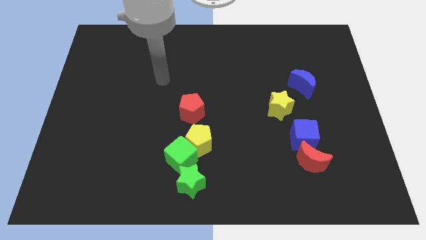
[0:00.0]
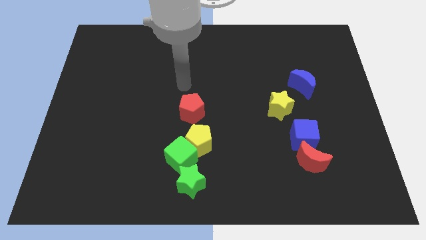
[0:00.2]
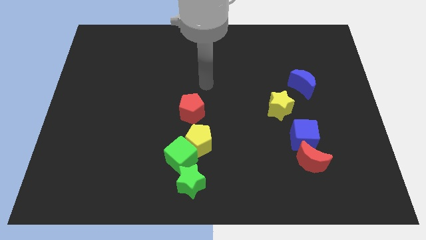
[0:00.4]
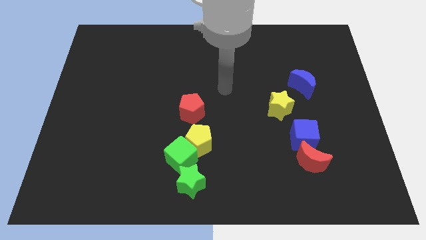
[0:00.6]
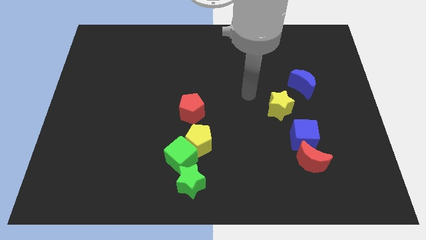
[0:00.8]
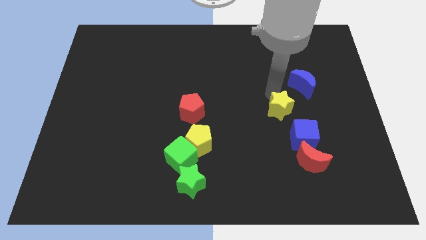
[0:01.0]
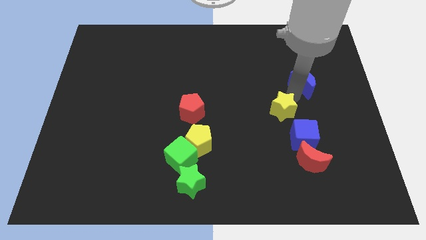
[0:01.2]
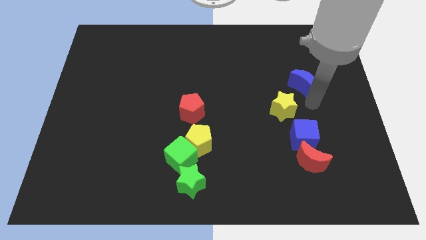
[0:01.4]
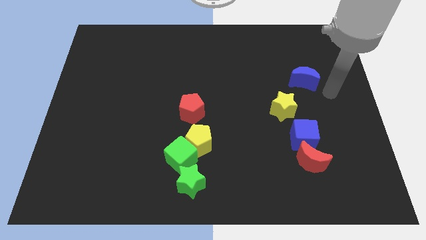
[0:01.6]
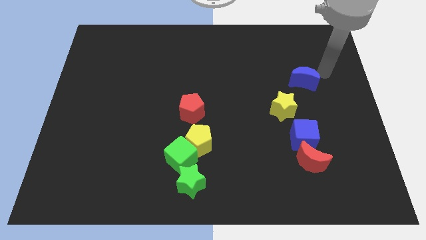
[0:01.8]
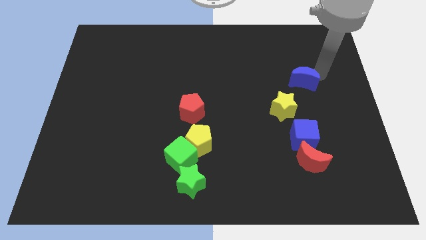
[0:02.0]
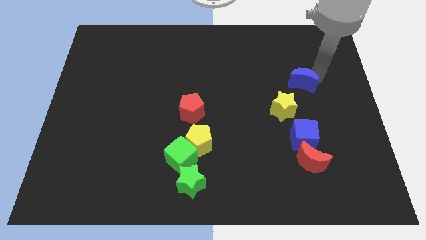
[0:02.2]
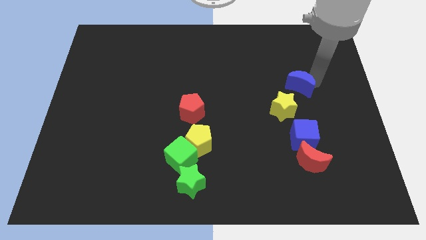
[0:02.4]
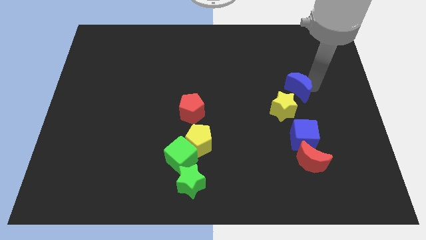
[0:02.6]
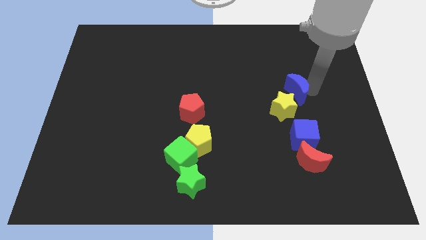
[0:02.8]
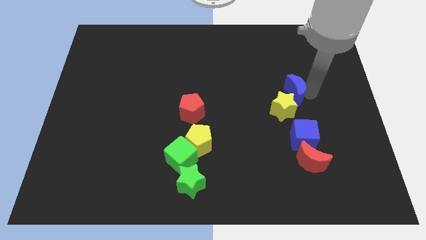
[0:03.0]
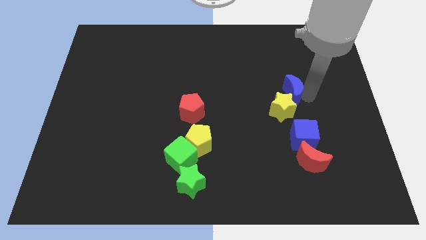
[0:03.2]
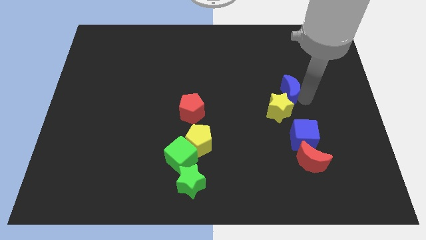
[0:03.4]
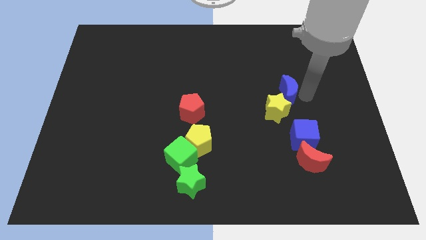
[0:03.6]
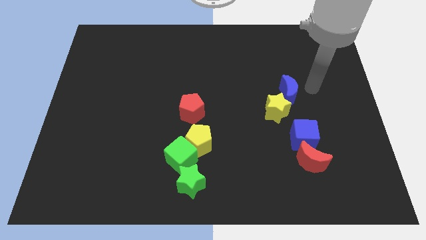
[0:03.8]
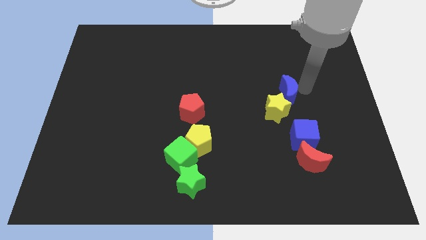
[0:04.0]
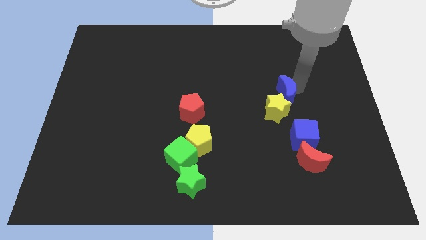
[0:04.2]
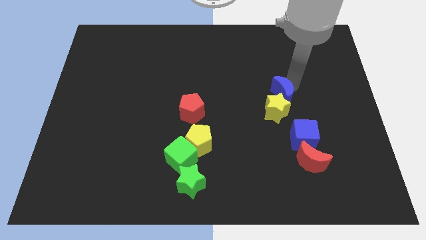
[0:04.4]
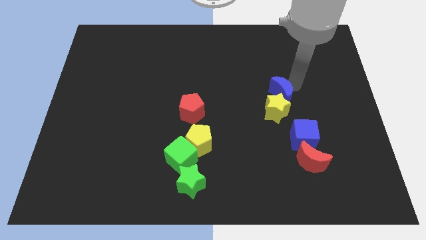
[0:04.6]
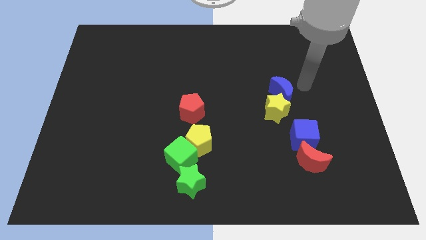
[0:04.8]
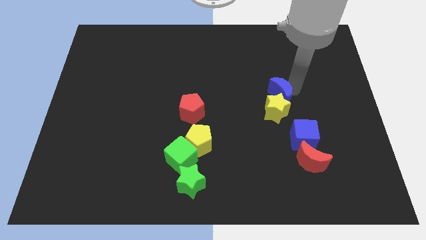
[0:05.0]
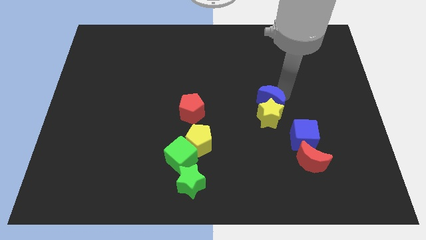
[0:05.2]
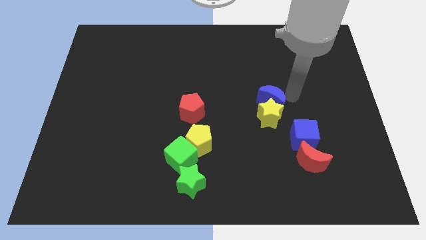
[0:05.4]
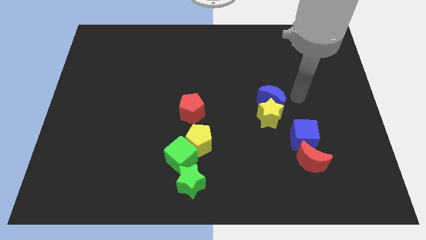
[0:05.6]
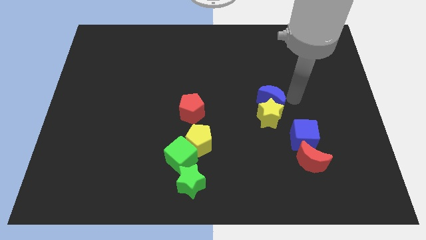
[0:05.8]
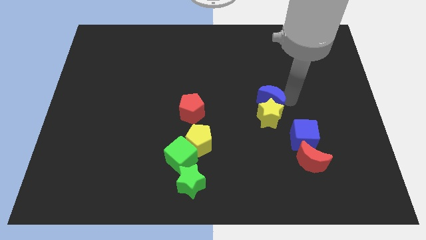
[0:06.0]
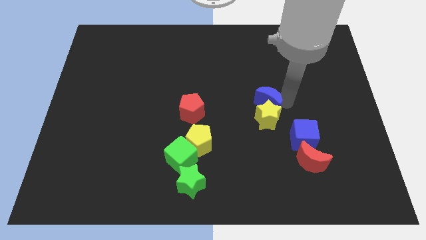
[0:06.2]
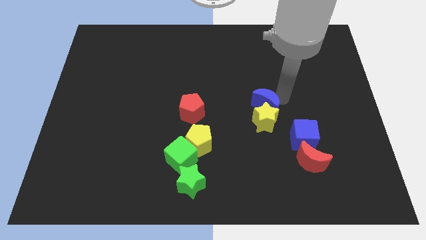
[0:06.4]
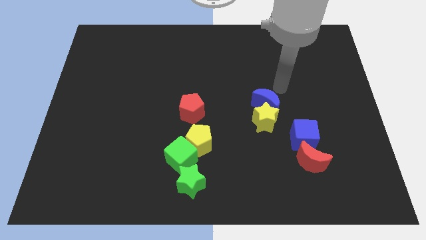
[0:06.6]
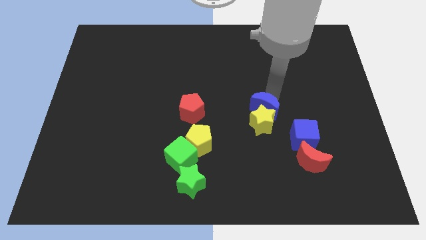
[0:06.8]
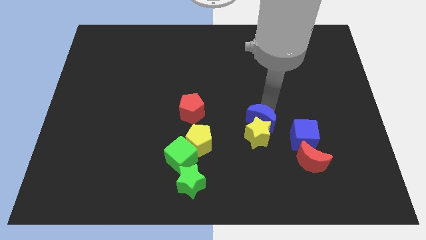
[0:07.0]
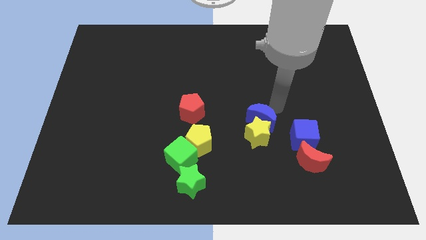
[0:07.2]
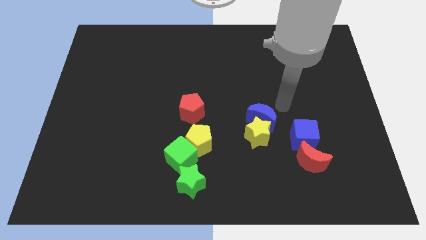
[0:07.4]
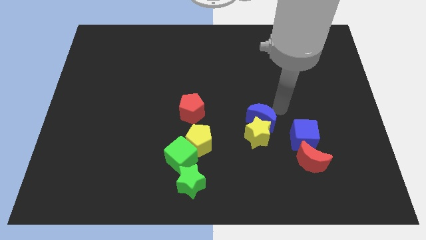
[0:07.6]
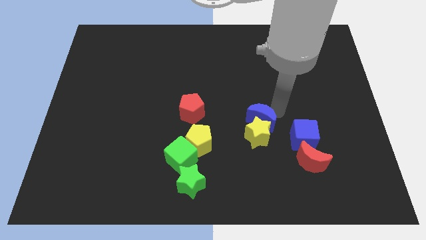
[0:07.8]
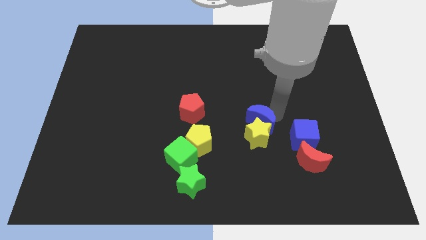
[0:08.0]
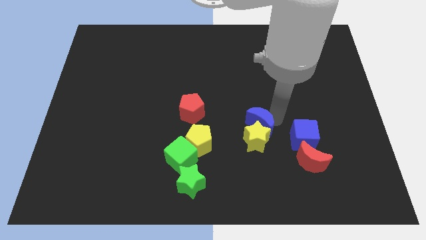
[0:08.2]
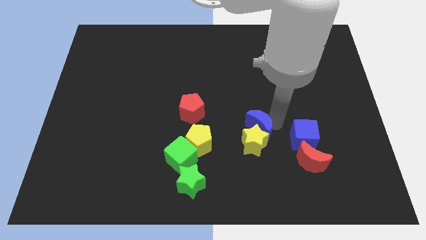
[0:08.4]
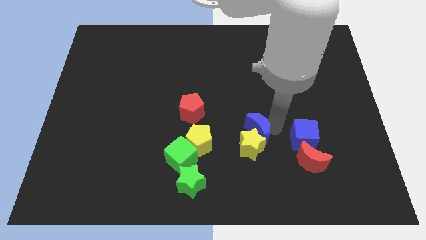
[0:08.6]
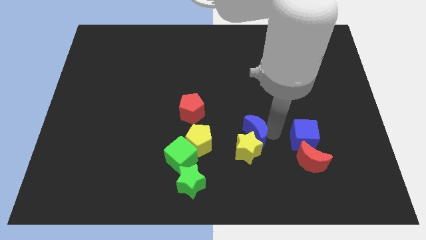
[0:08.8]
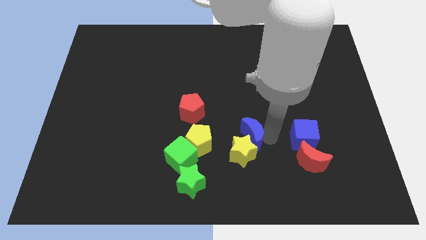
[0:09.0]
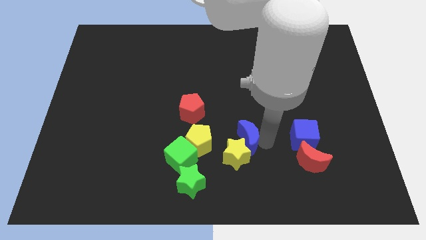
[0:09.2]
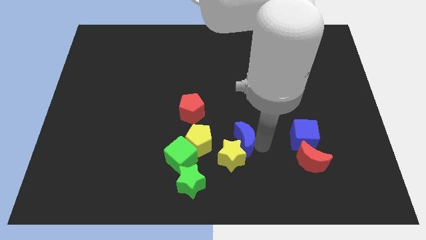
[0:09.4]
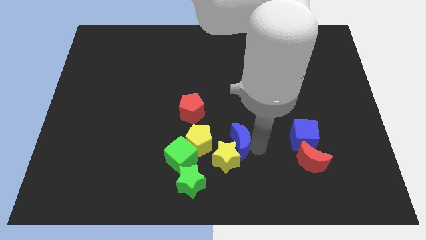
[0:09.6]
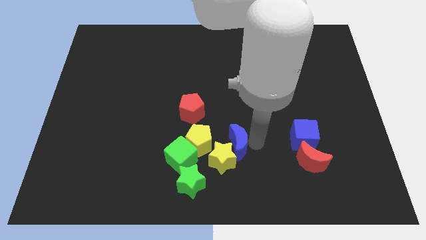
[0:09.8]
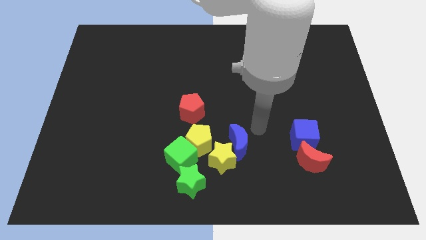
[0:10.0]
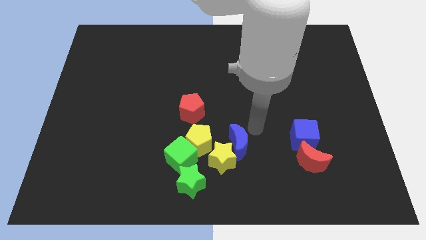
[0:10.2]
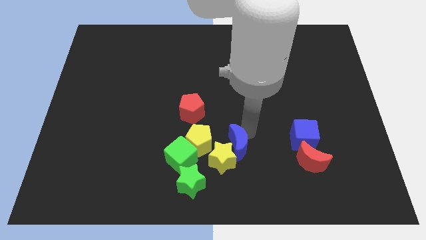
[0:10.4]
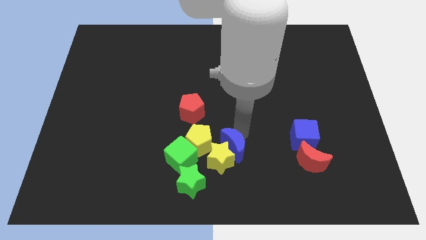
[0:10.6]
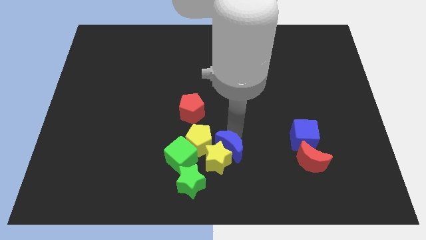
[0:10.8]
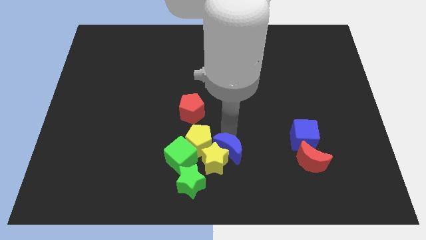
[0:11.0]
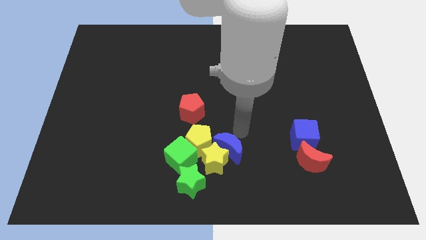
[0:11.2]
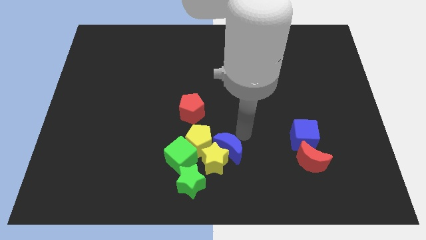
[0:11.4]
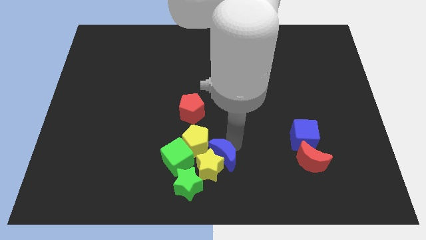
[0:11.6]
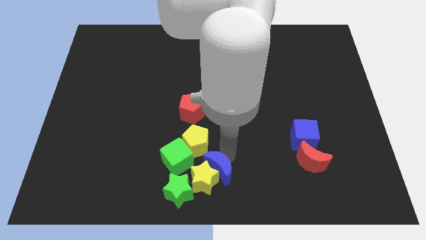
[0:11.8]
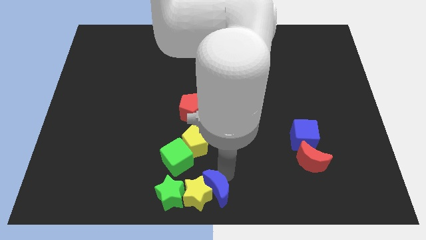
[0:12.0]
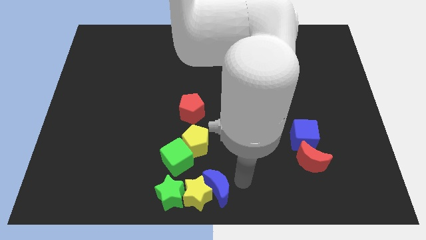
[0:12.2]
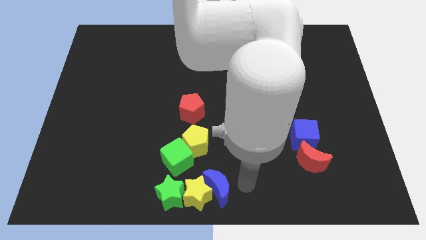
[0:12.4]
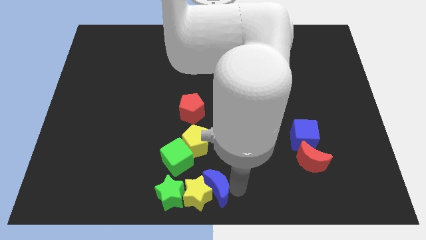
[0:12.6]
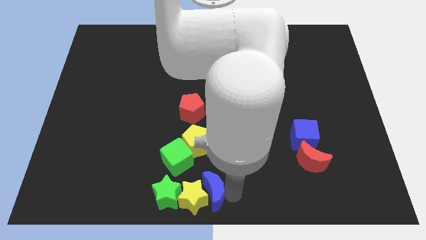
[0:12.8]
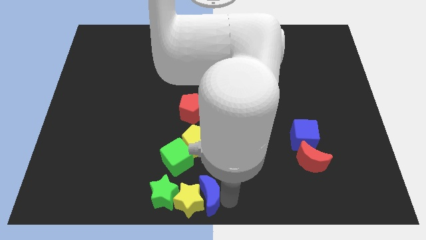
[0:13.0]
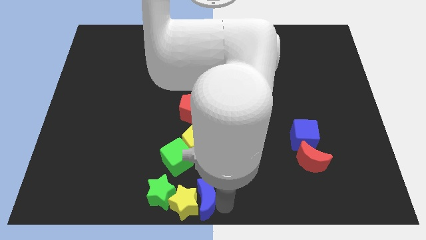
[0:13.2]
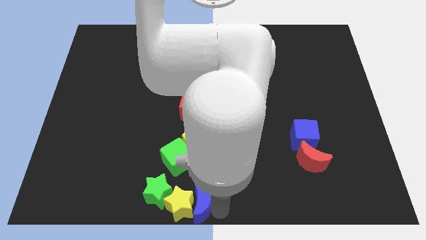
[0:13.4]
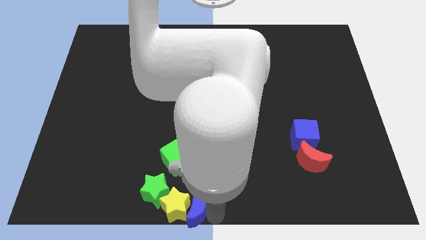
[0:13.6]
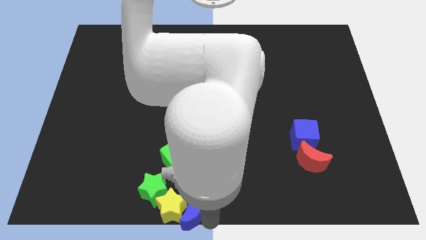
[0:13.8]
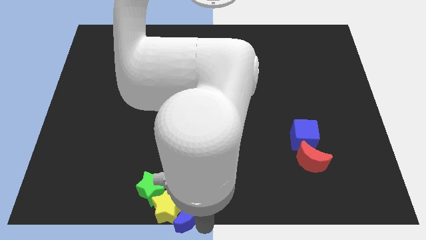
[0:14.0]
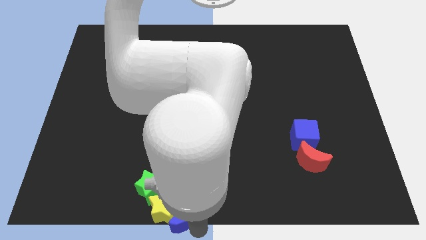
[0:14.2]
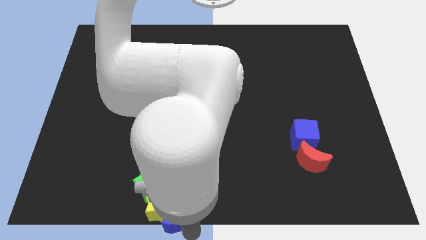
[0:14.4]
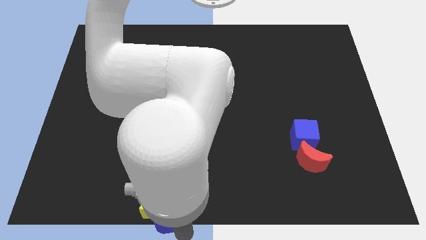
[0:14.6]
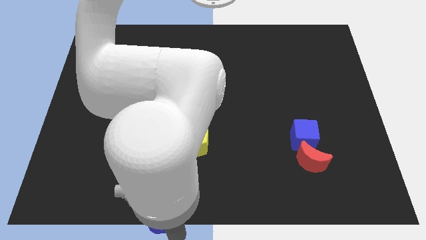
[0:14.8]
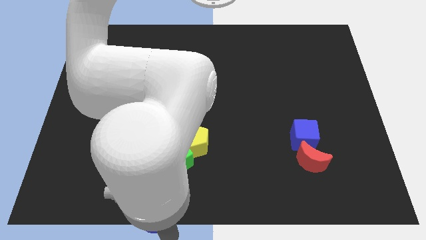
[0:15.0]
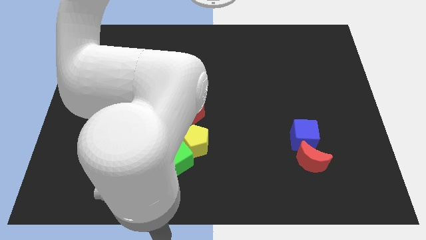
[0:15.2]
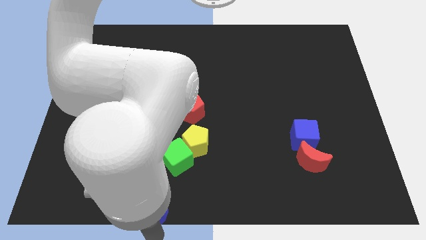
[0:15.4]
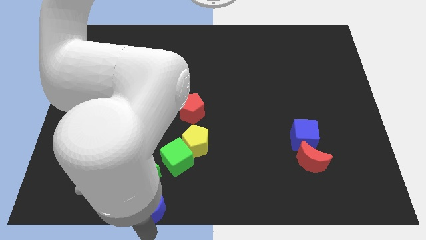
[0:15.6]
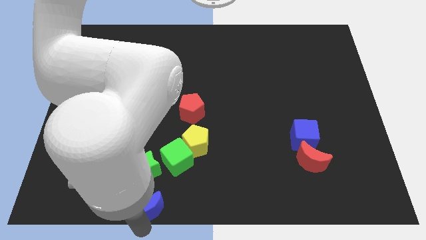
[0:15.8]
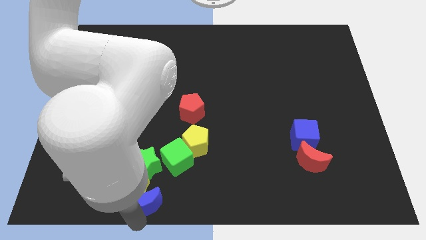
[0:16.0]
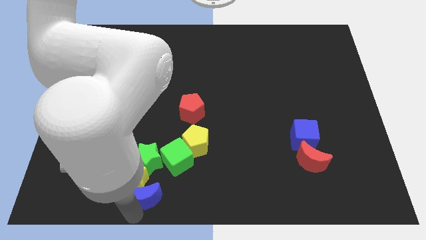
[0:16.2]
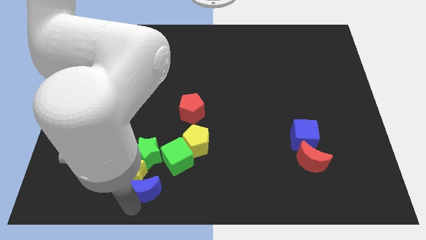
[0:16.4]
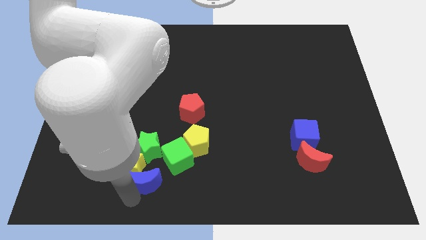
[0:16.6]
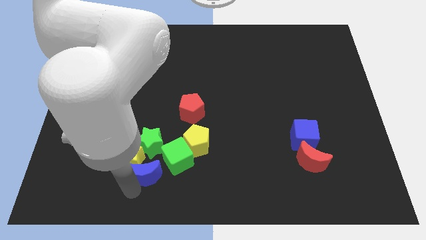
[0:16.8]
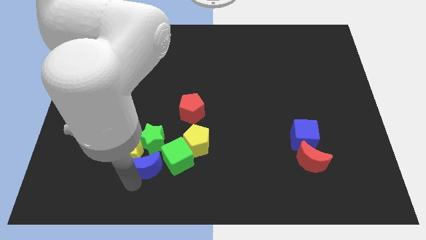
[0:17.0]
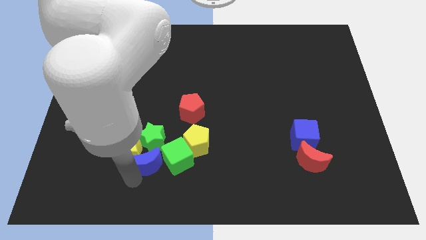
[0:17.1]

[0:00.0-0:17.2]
push the blue moon to the green star
